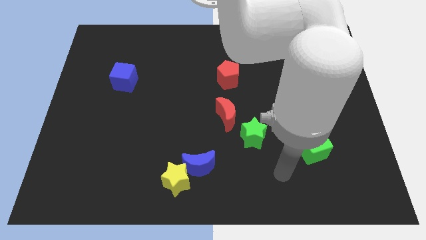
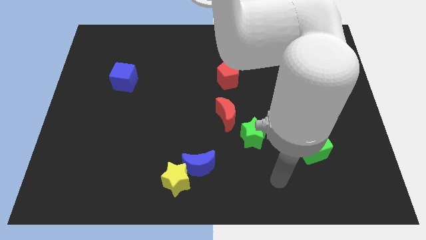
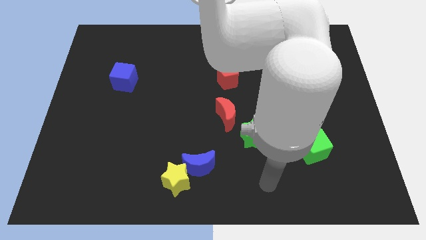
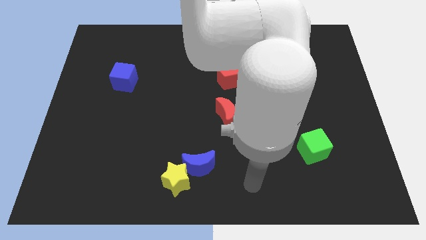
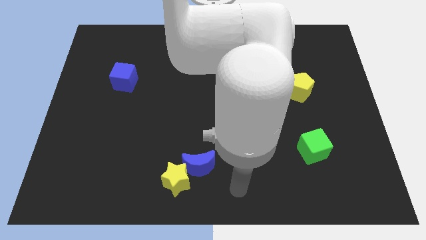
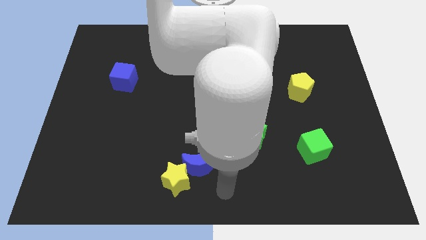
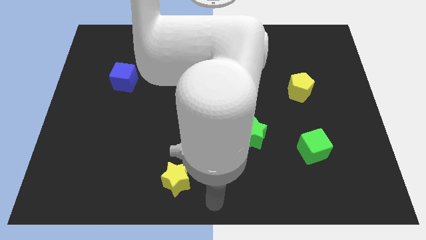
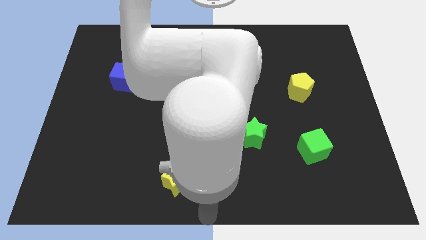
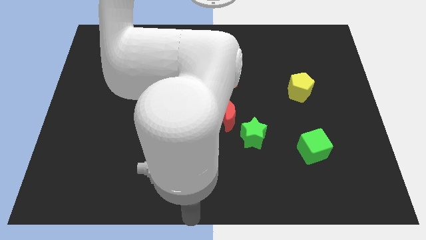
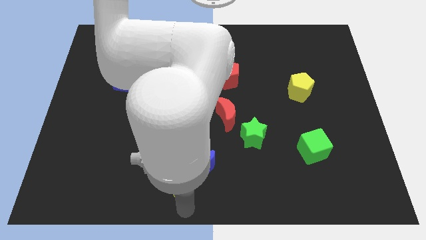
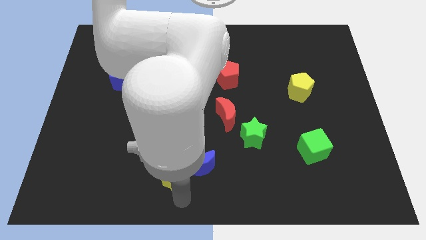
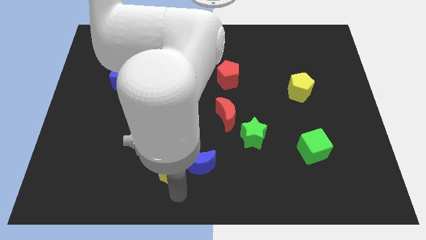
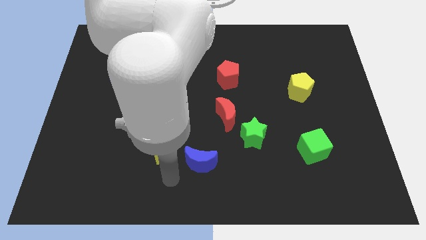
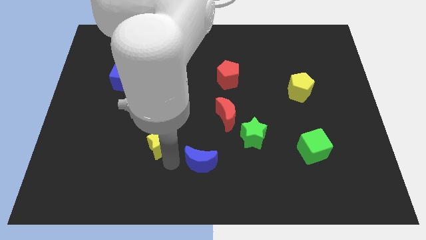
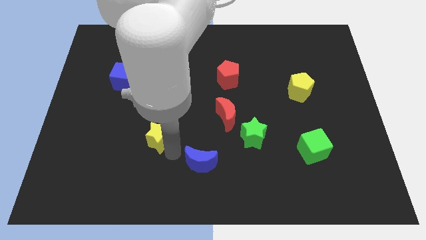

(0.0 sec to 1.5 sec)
move the blue moon away from the yellow star

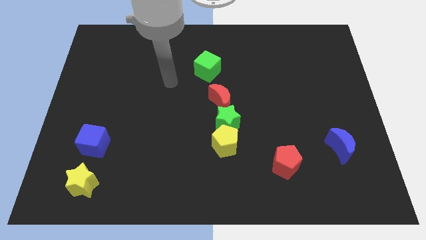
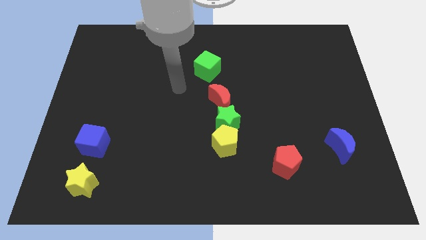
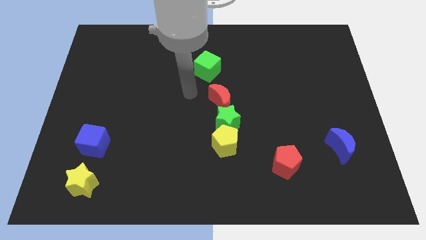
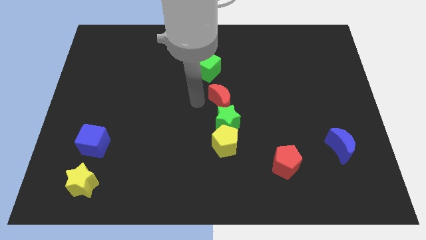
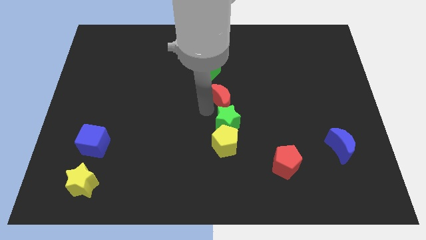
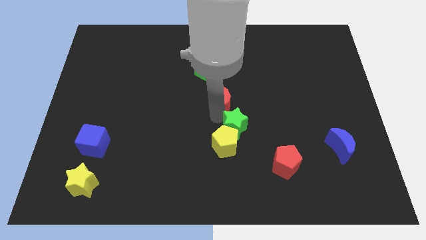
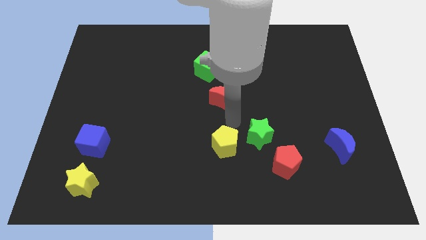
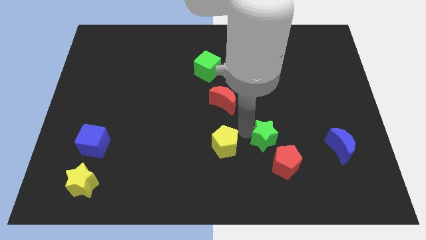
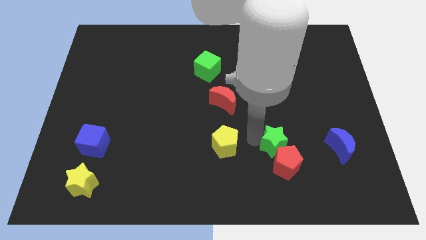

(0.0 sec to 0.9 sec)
pull the yellow pentagon apart from the green star

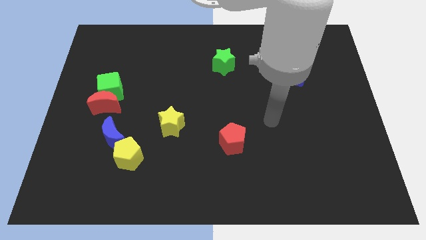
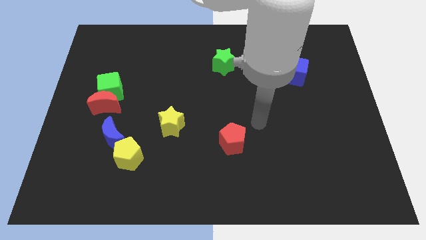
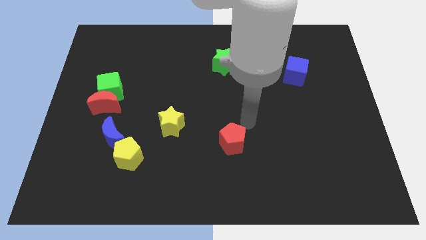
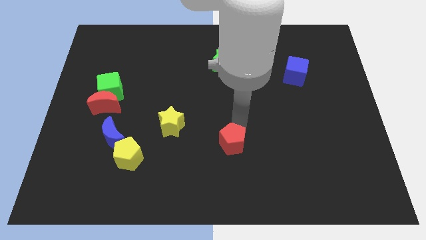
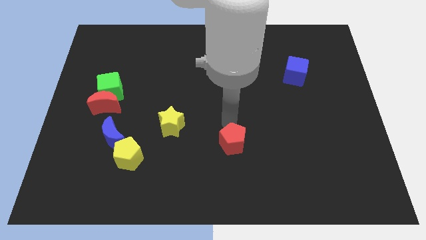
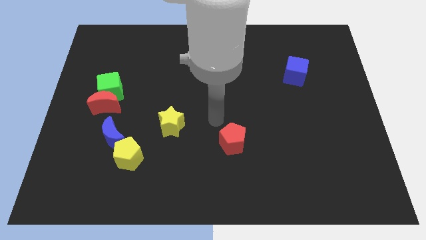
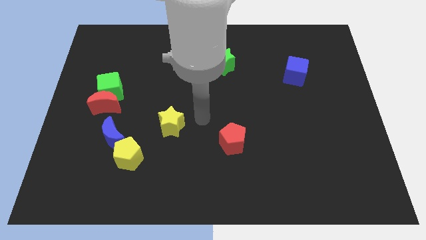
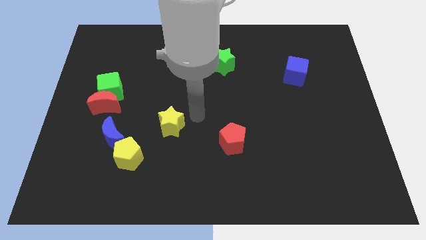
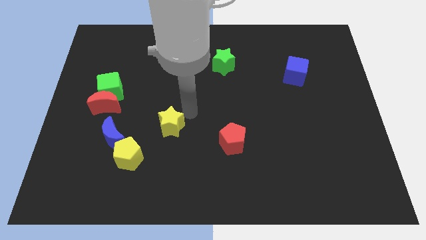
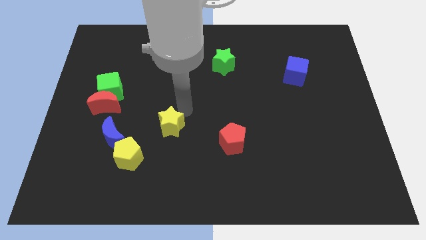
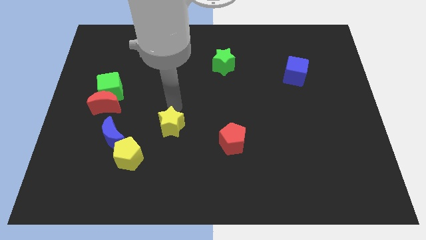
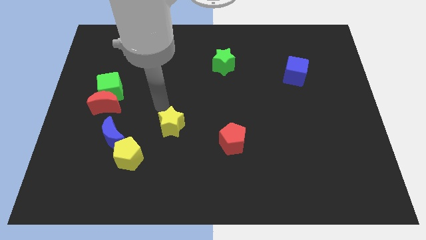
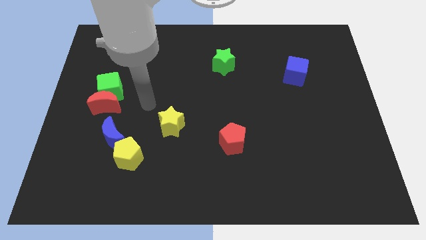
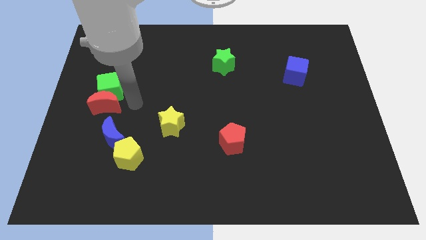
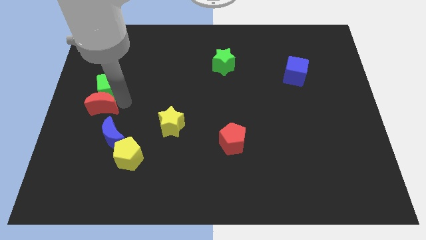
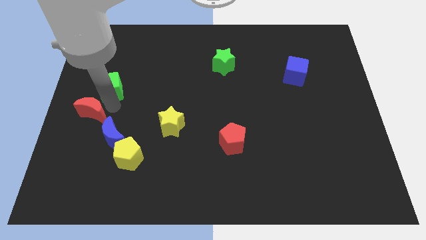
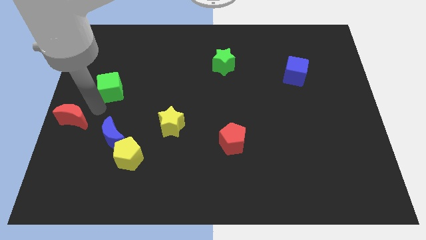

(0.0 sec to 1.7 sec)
separate the green cube from the red moon

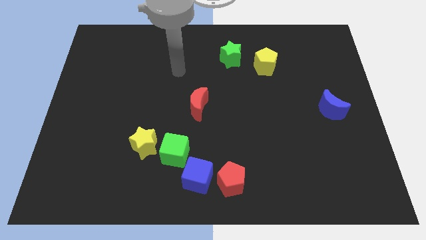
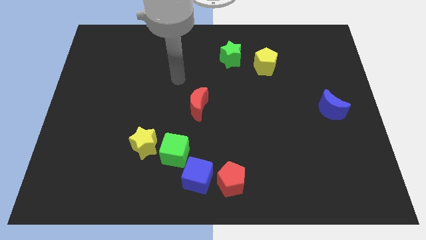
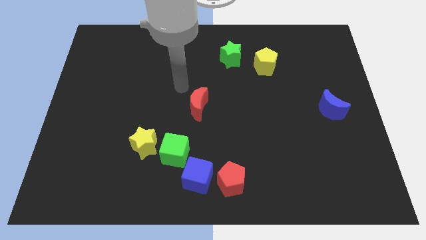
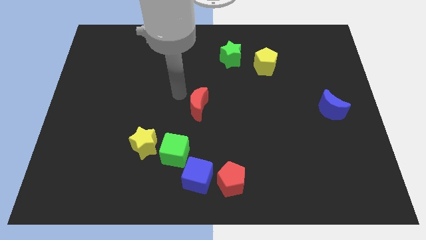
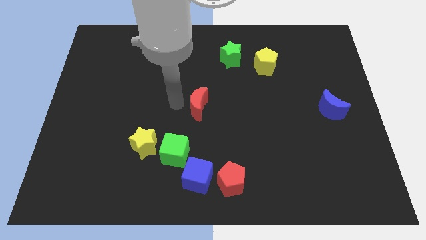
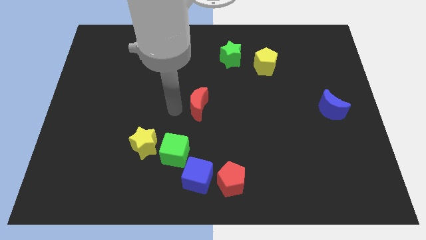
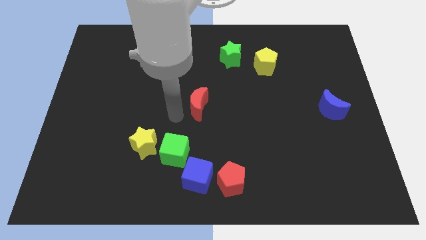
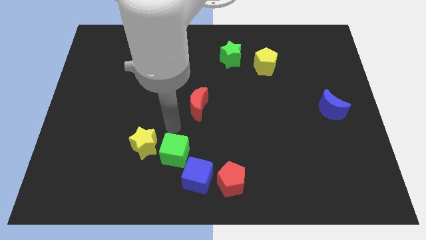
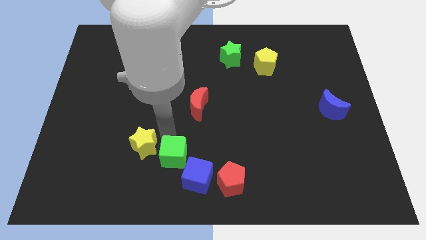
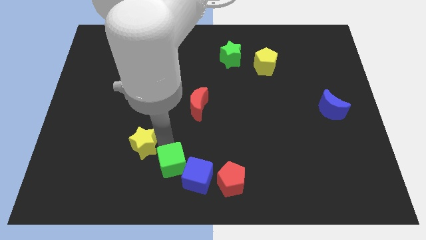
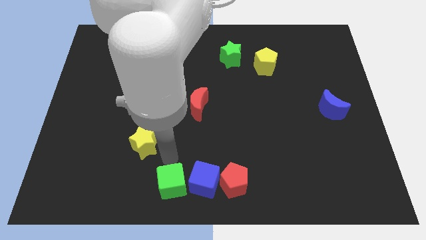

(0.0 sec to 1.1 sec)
move the yellow star away from the green cube

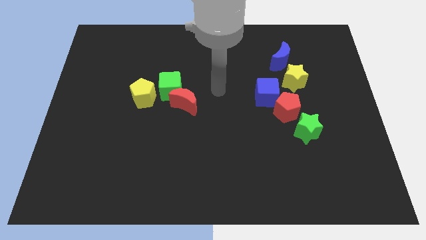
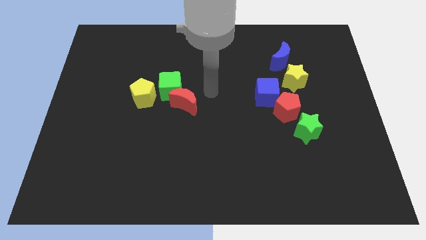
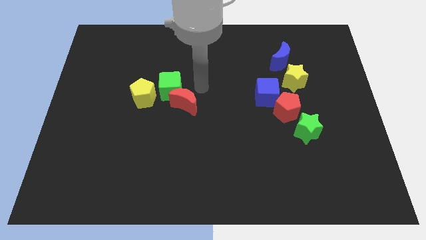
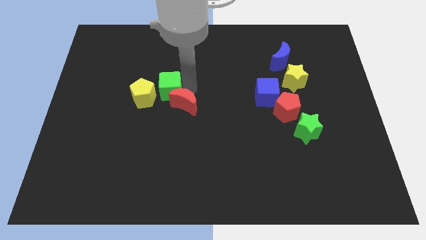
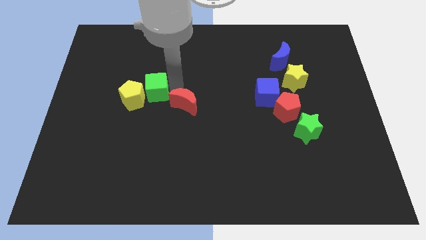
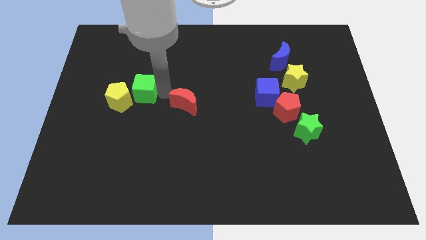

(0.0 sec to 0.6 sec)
pull the red moon apart from the green cube

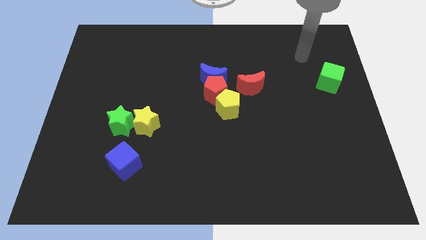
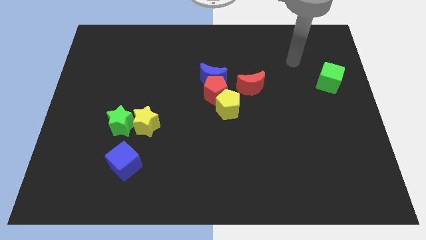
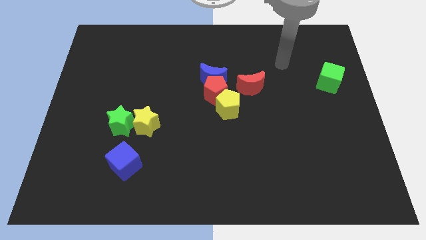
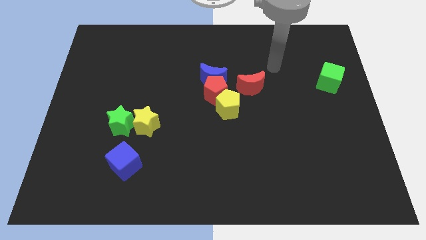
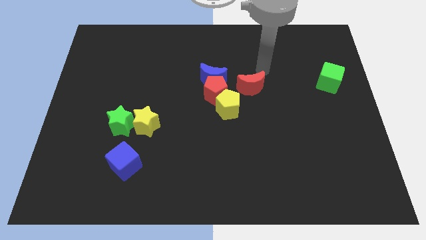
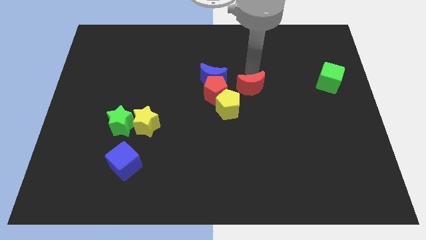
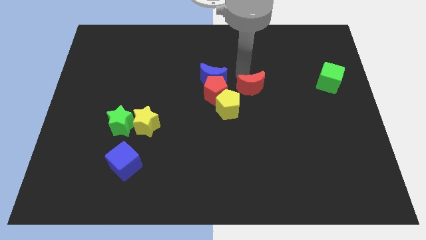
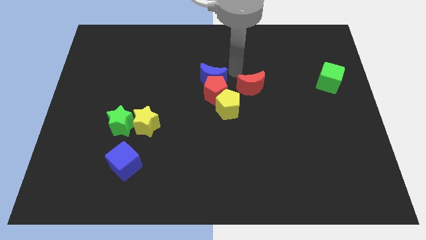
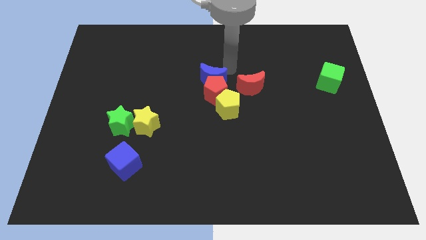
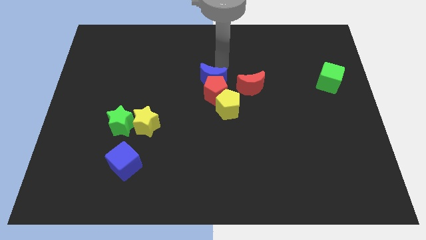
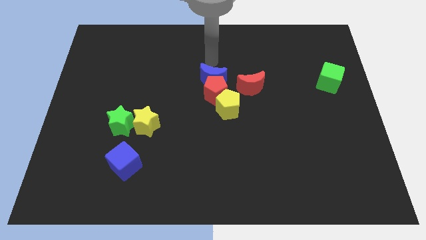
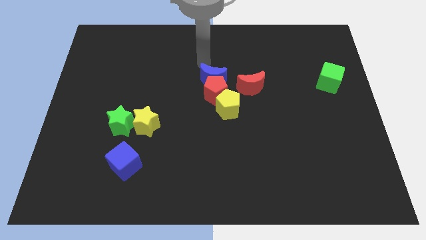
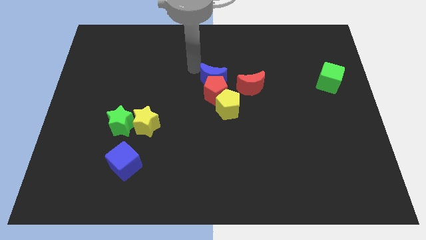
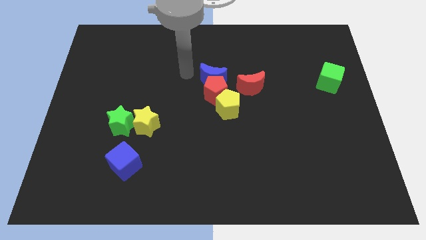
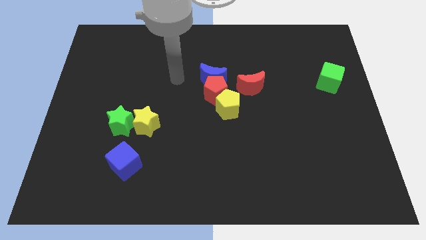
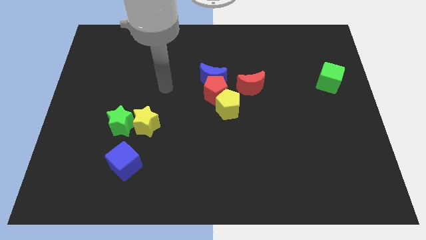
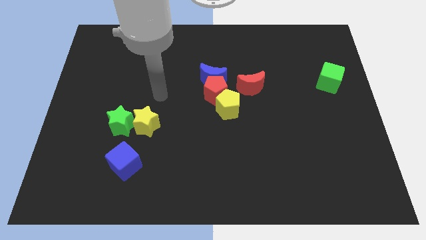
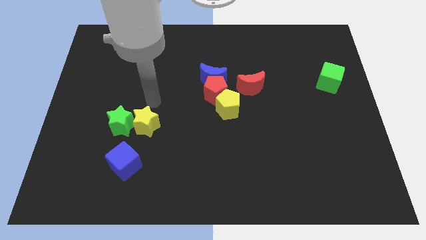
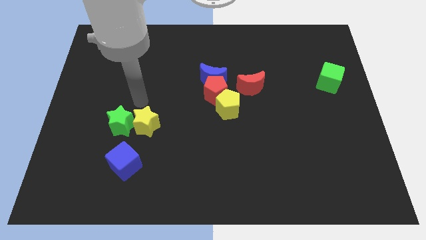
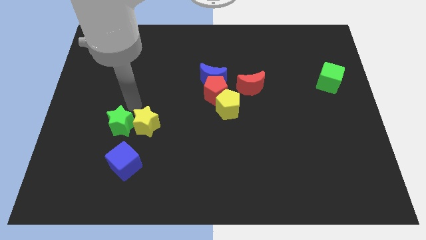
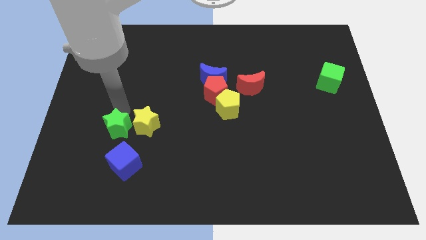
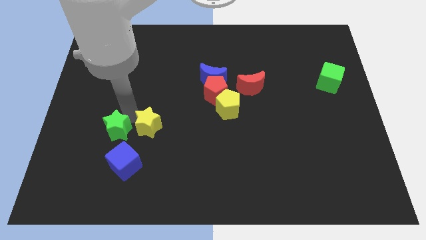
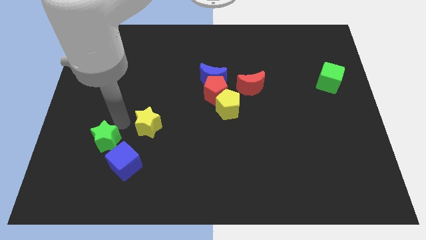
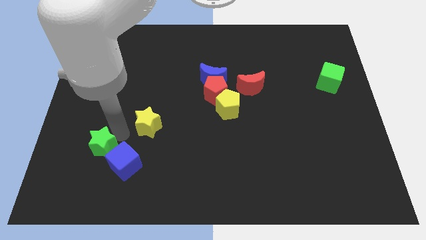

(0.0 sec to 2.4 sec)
pull the yellow star apart from the green star

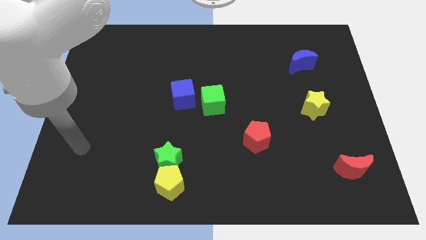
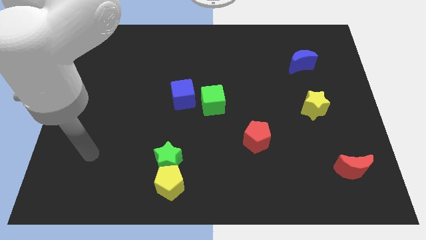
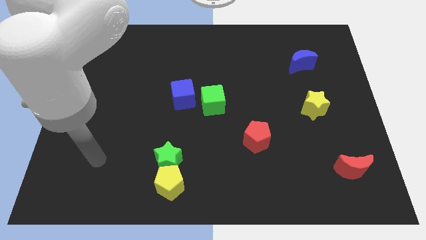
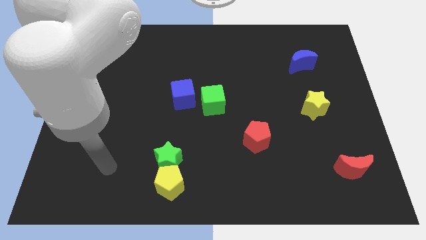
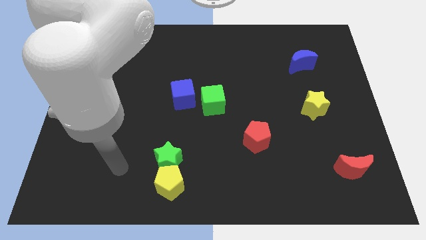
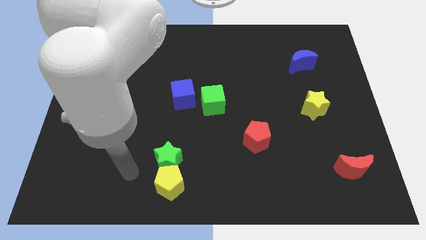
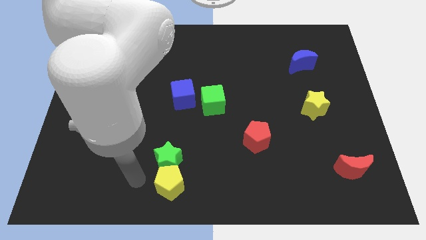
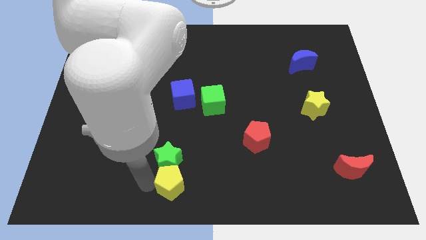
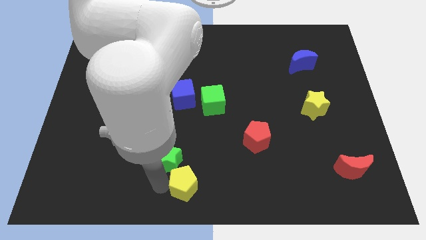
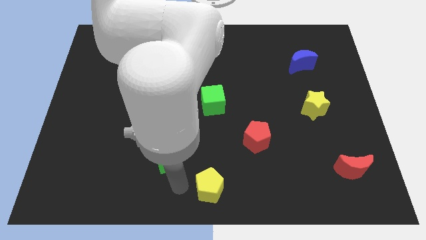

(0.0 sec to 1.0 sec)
pull the green star apart from the yellow pentagon

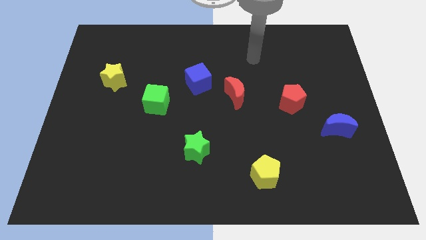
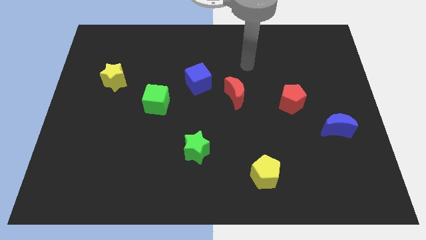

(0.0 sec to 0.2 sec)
pull the red moon apart from the blue cube
